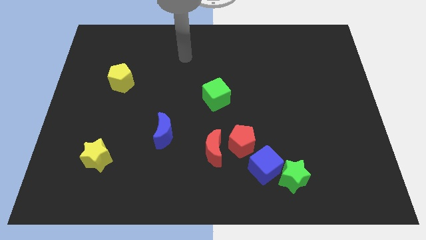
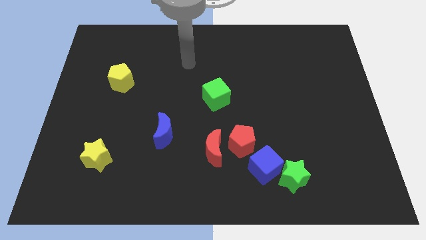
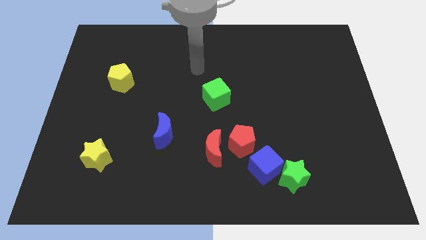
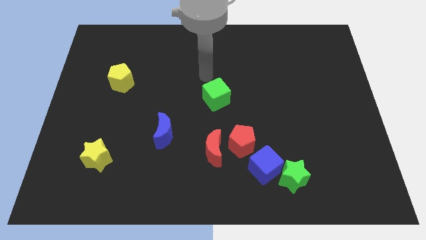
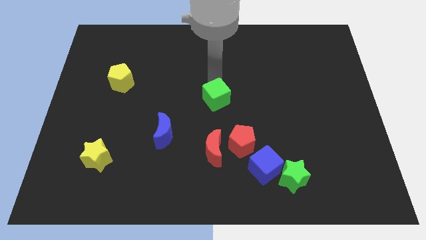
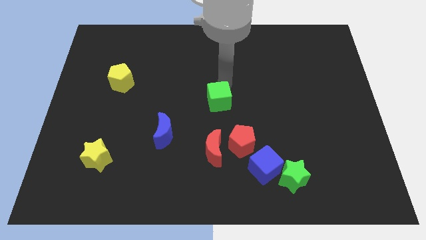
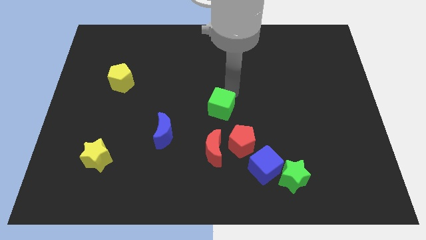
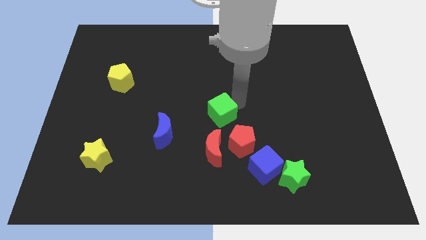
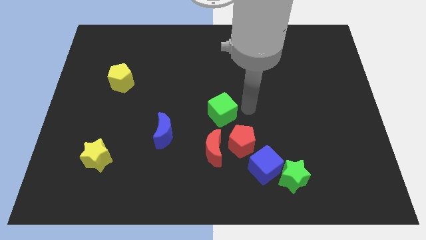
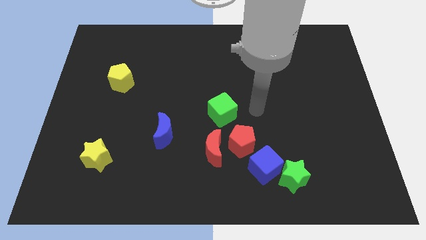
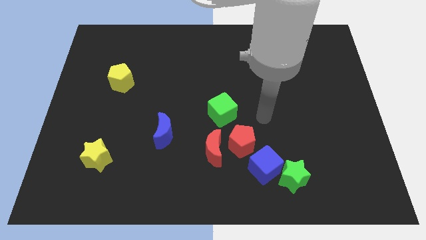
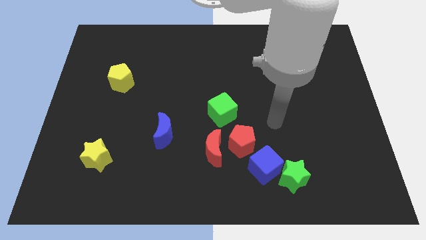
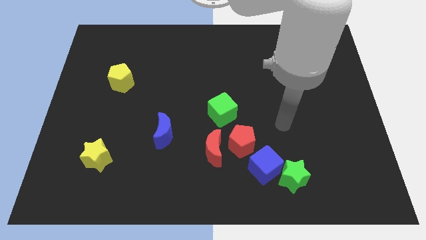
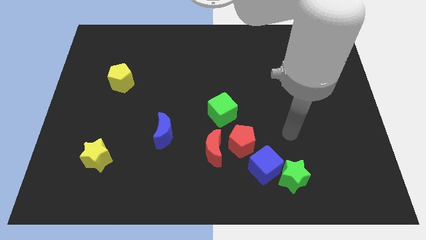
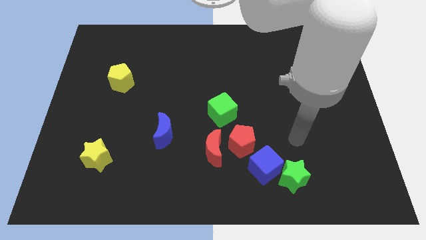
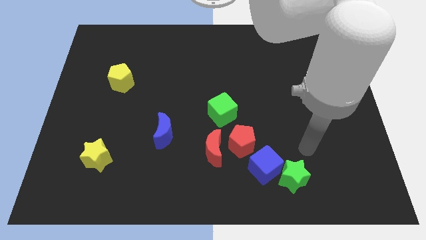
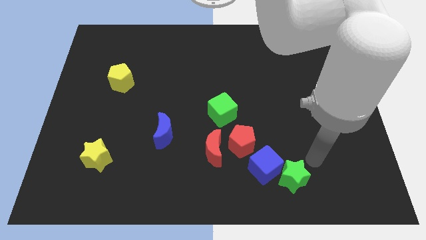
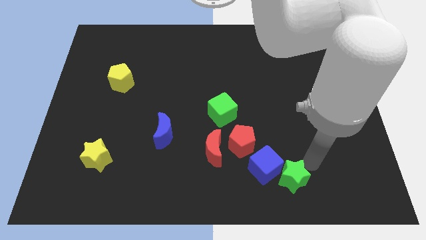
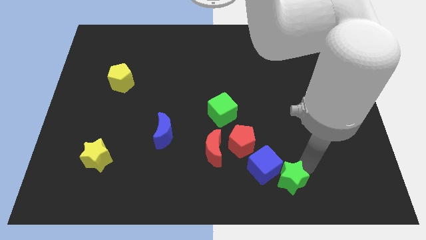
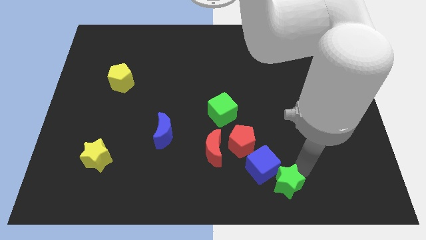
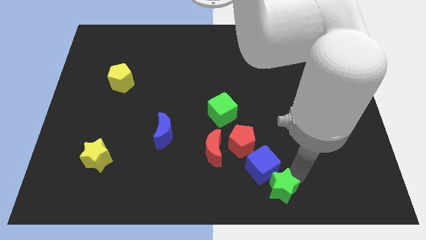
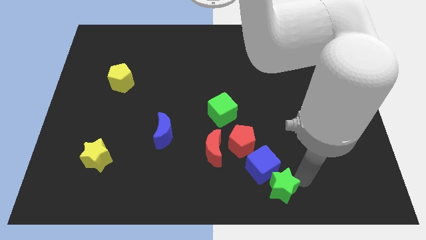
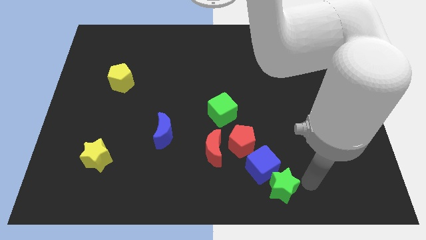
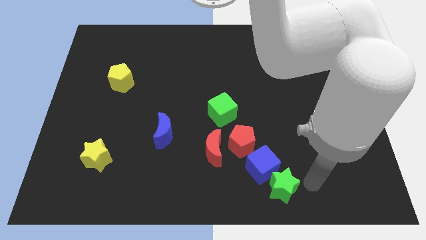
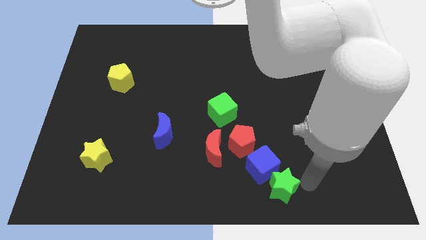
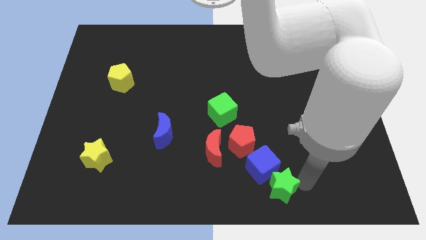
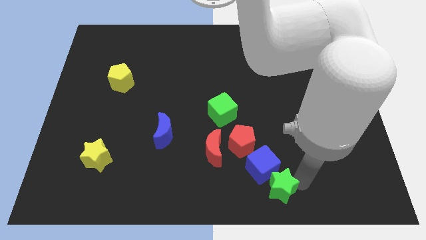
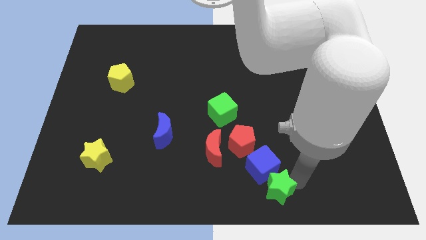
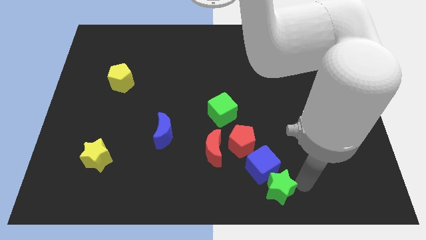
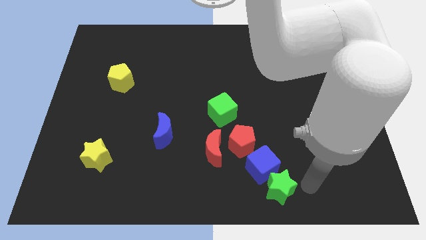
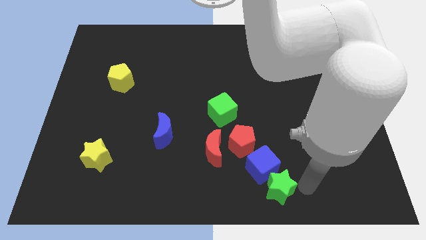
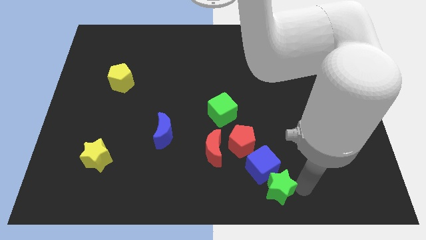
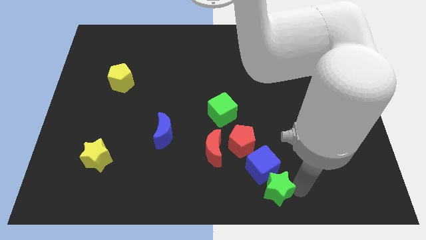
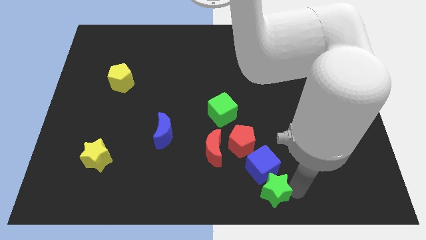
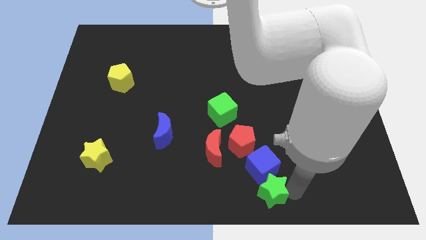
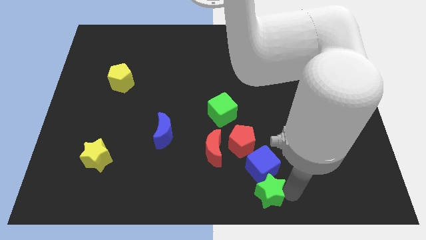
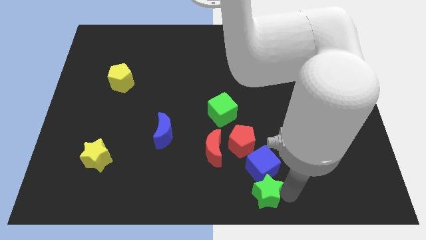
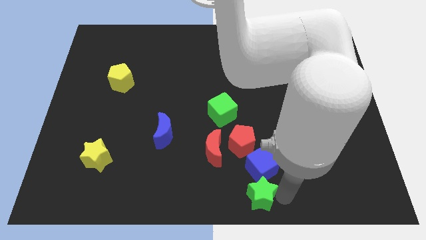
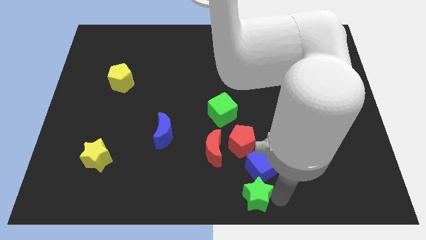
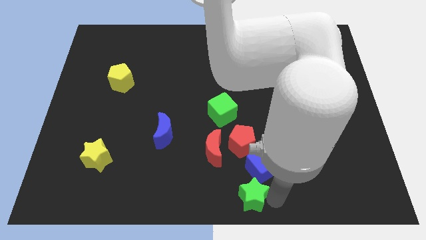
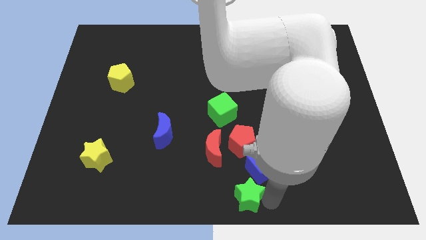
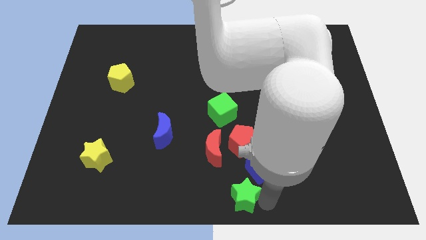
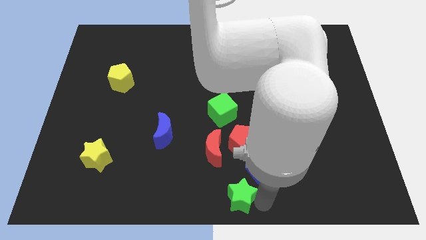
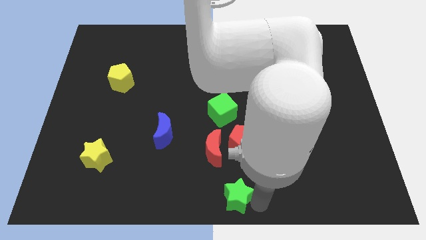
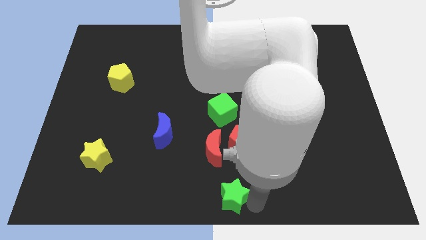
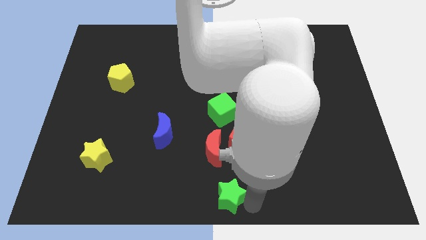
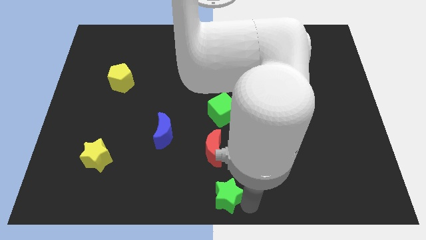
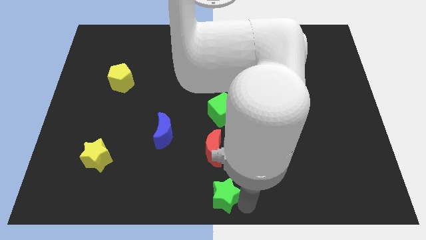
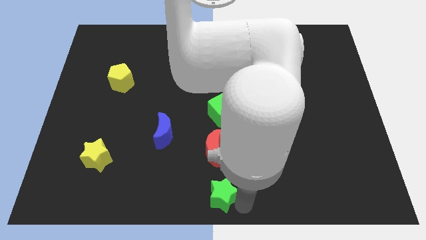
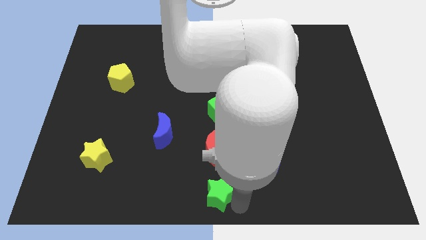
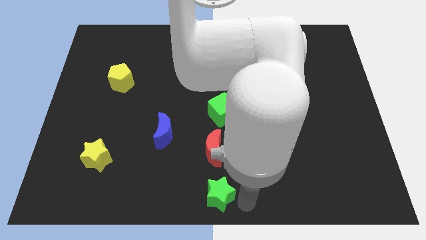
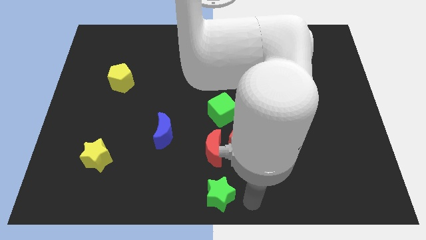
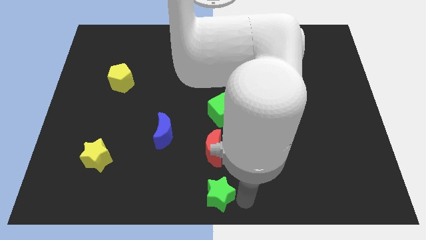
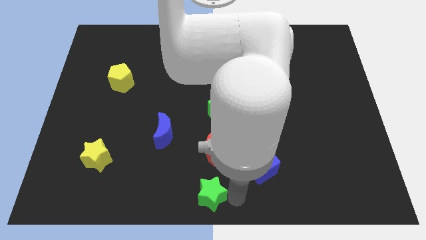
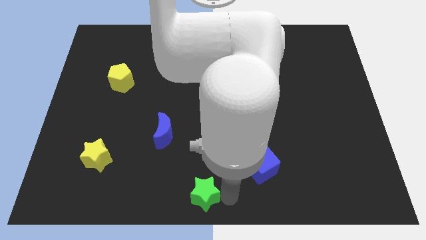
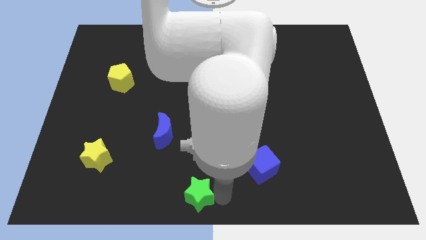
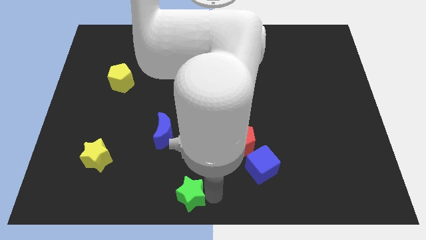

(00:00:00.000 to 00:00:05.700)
slide the green star left

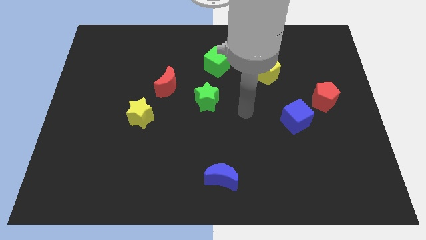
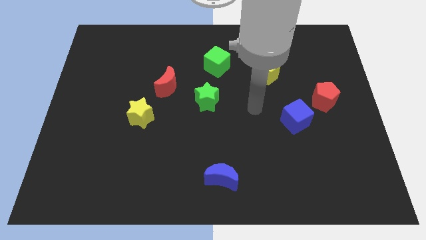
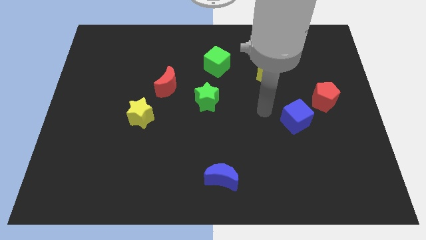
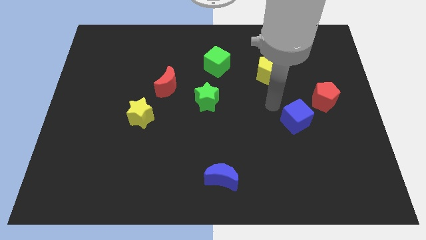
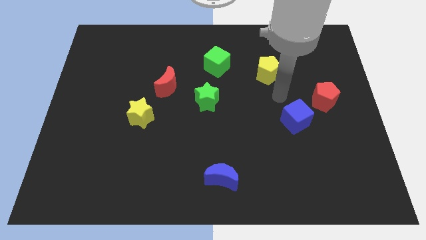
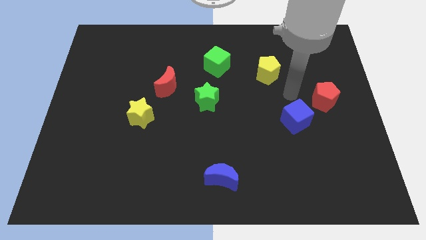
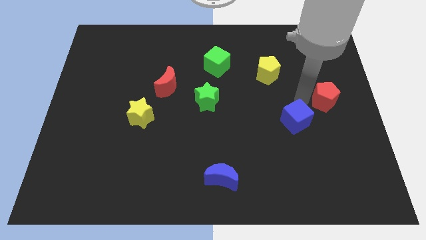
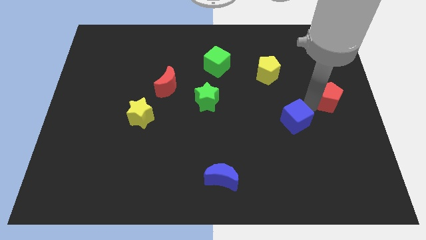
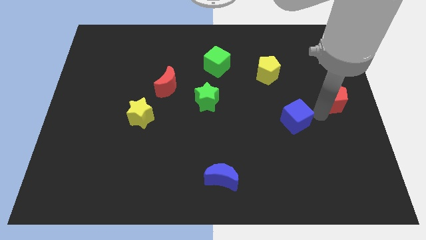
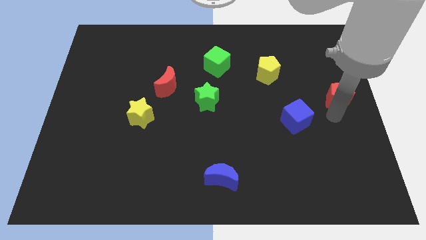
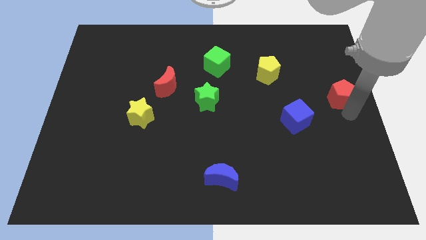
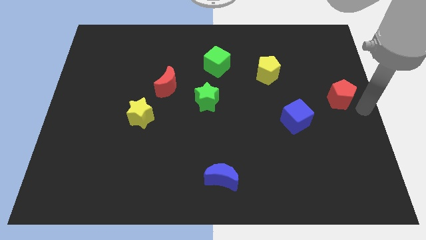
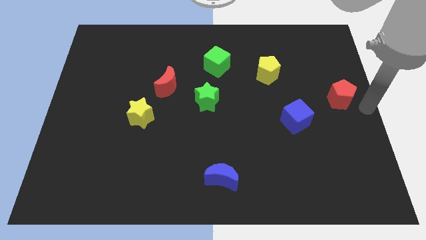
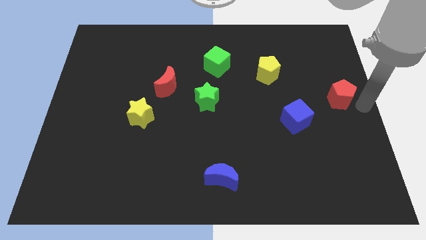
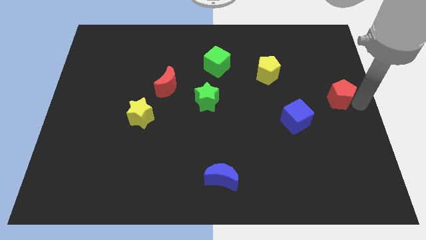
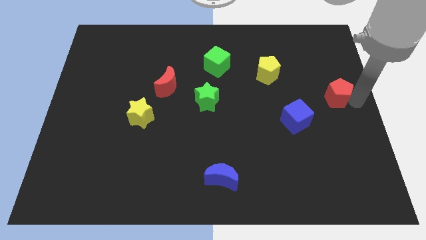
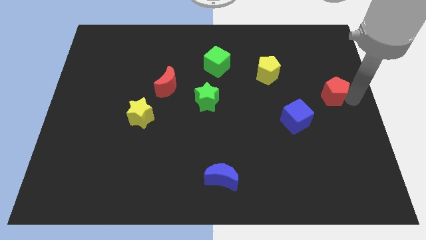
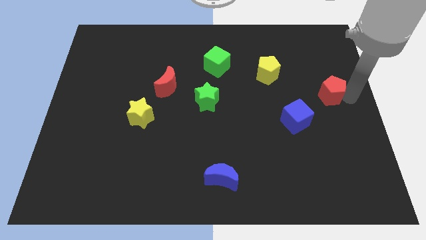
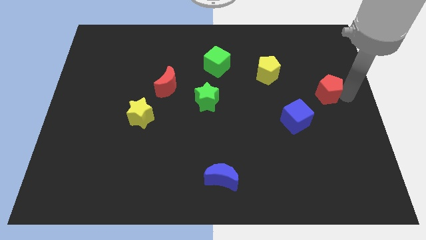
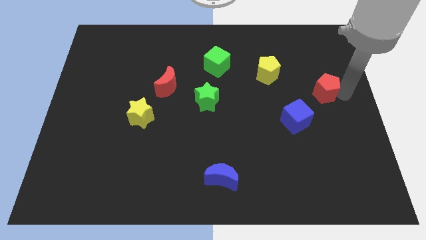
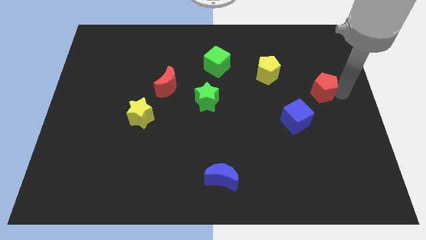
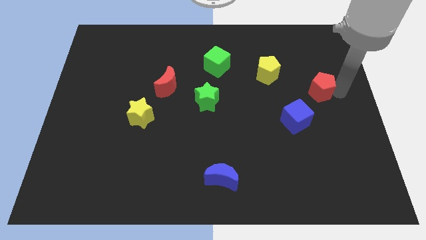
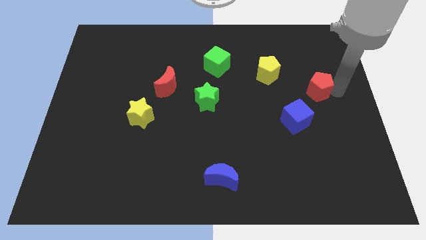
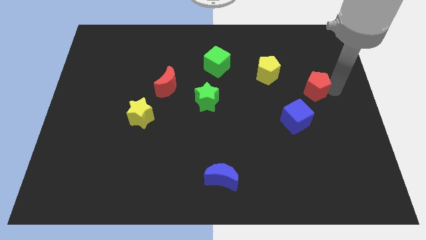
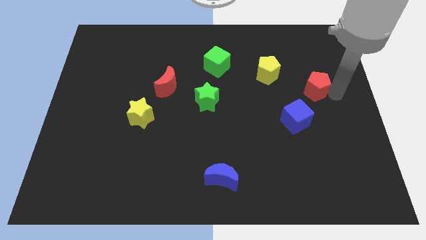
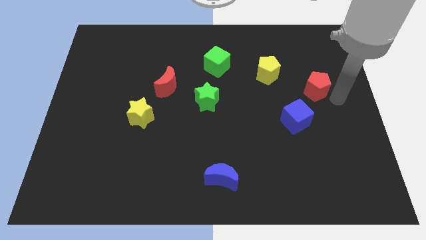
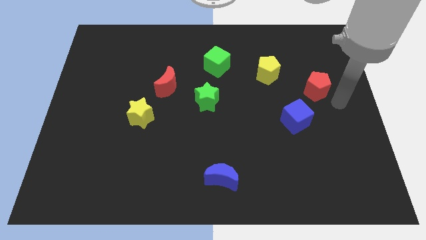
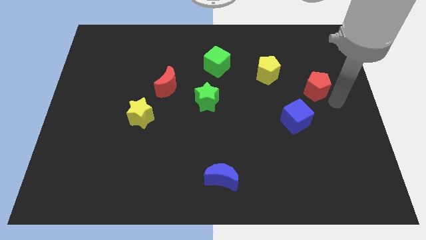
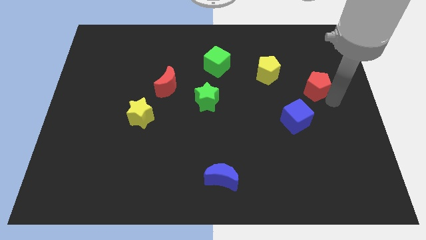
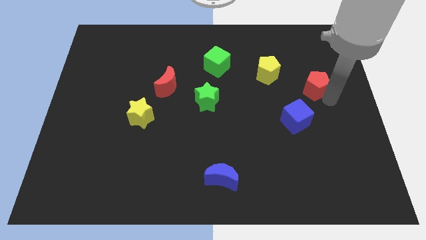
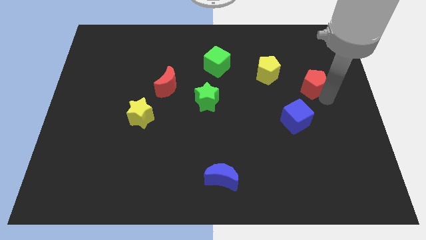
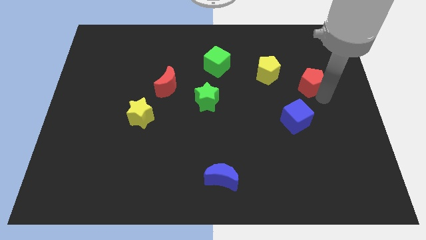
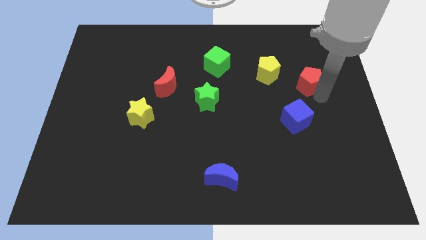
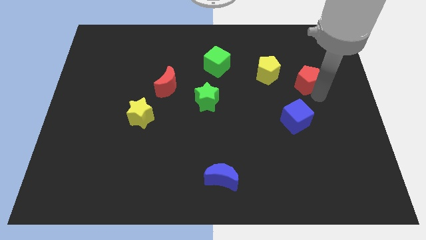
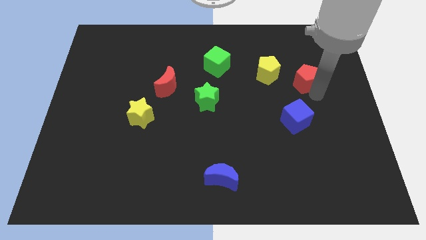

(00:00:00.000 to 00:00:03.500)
push the red pentagon upwards and then left a bit
